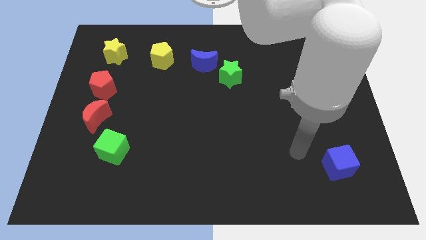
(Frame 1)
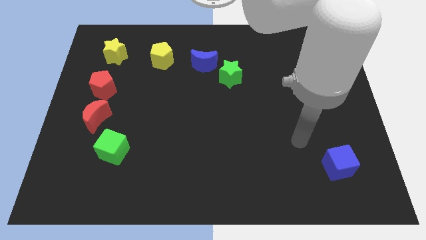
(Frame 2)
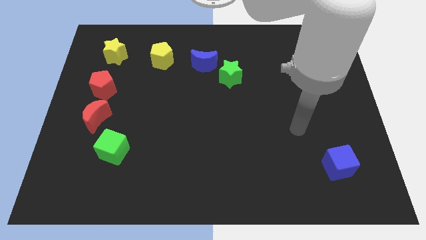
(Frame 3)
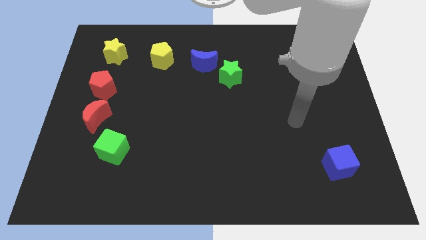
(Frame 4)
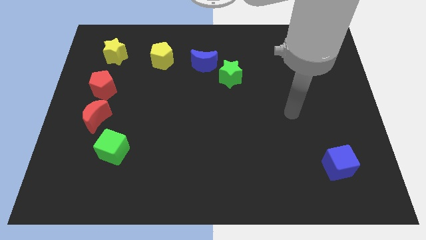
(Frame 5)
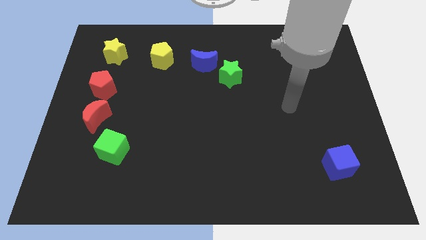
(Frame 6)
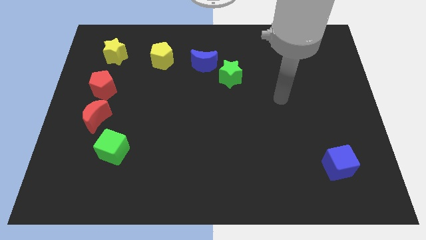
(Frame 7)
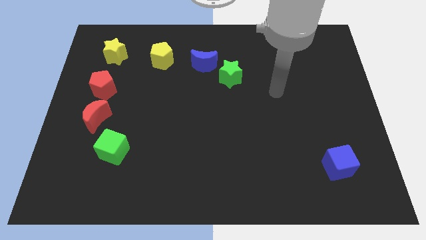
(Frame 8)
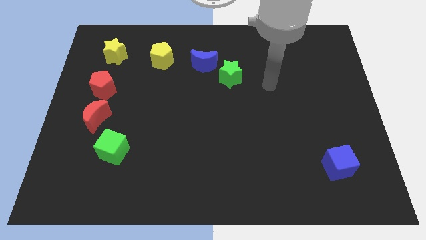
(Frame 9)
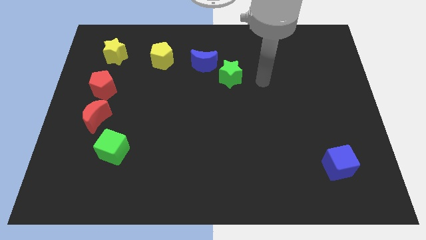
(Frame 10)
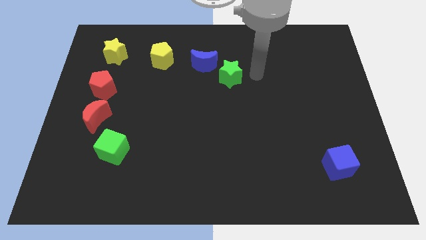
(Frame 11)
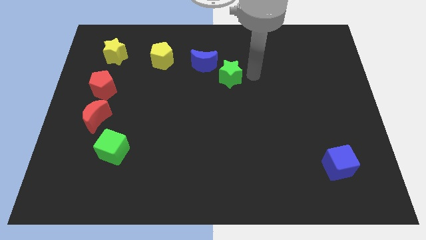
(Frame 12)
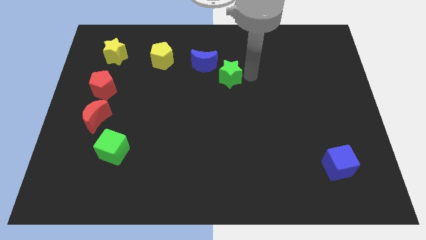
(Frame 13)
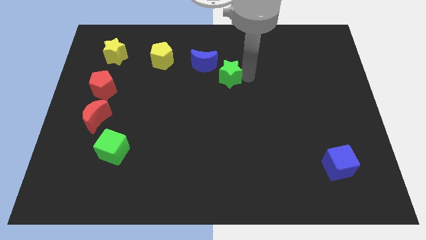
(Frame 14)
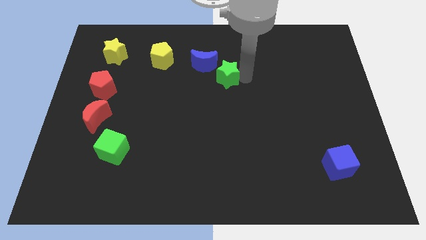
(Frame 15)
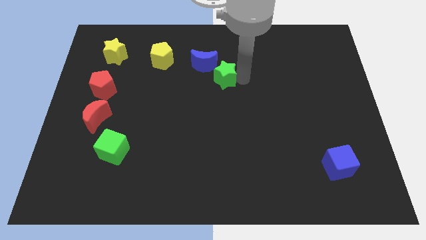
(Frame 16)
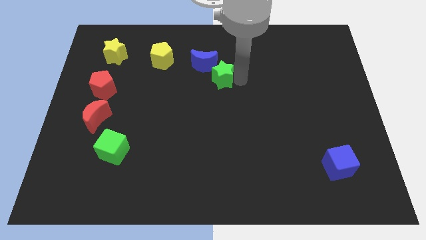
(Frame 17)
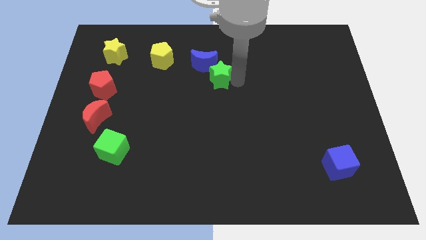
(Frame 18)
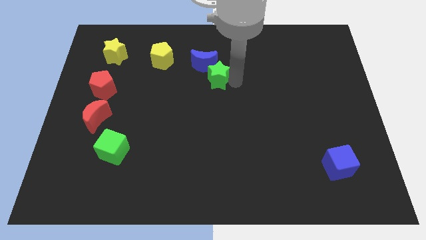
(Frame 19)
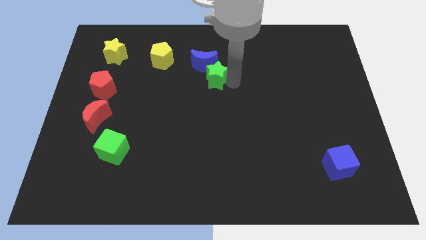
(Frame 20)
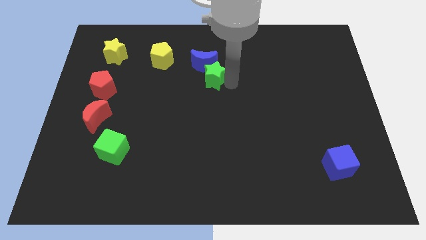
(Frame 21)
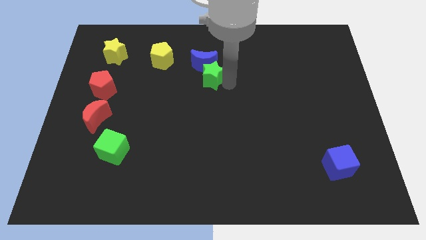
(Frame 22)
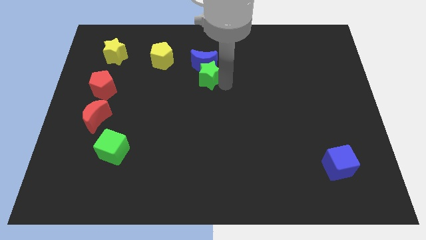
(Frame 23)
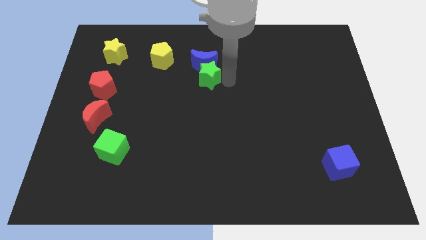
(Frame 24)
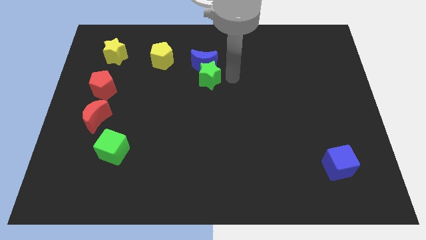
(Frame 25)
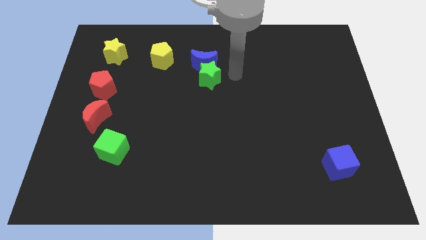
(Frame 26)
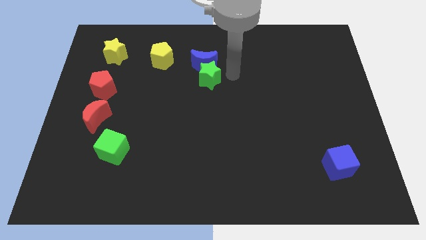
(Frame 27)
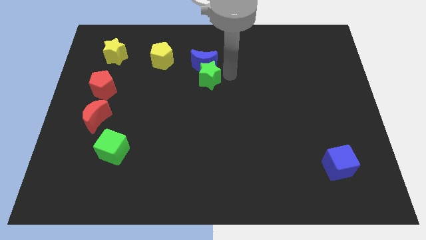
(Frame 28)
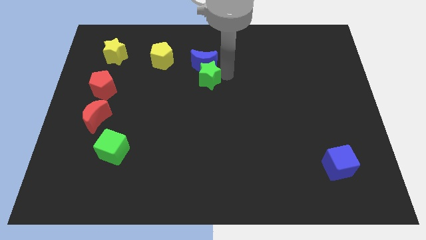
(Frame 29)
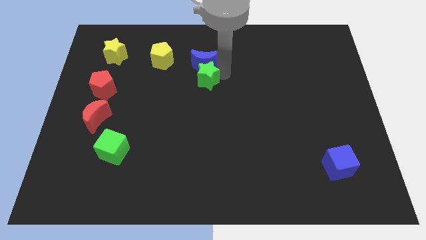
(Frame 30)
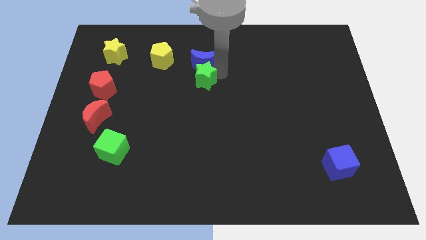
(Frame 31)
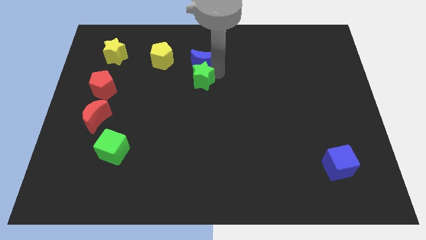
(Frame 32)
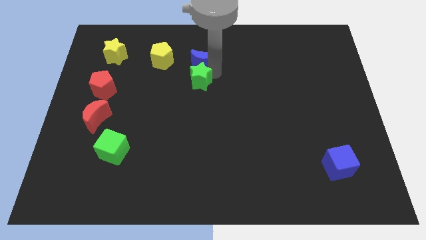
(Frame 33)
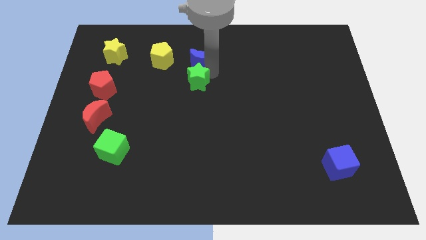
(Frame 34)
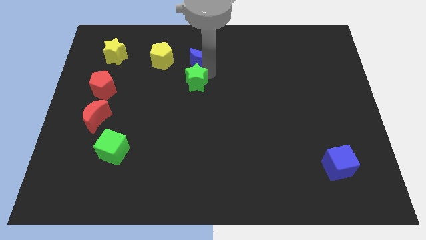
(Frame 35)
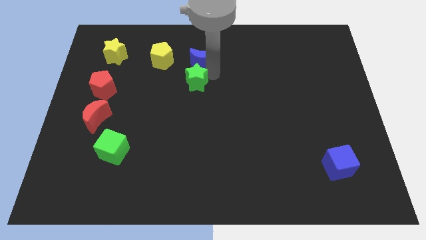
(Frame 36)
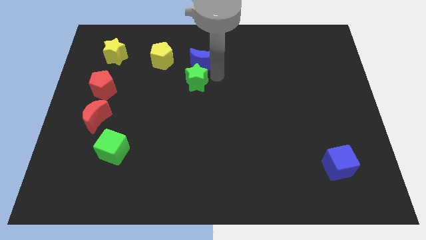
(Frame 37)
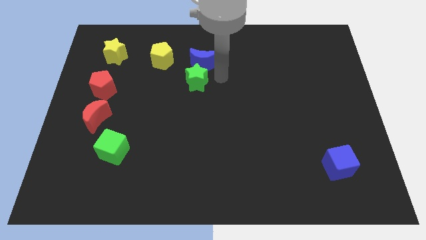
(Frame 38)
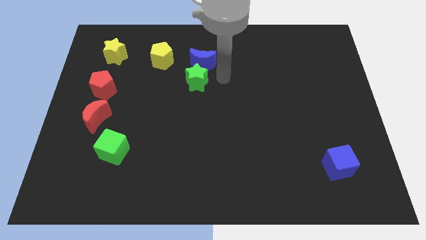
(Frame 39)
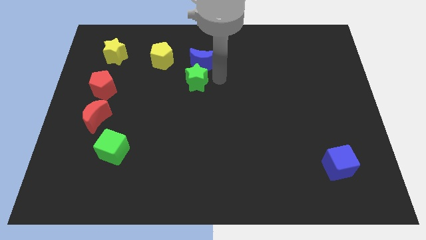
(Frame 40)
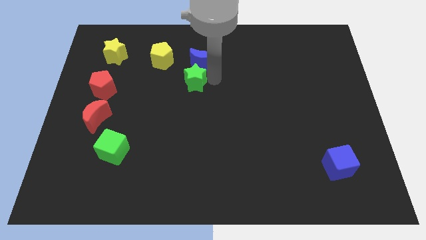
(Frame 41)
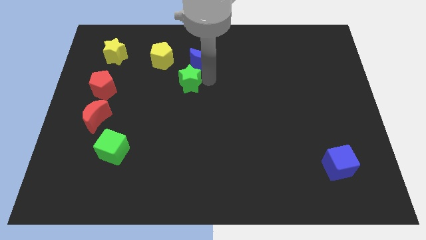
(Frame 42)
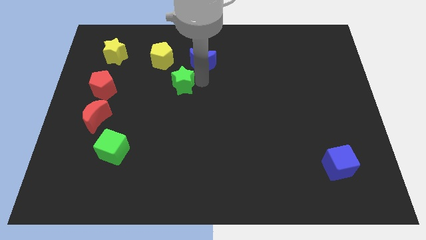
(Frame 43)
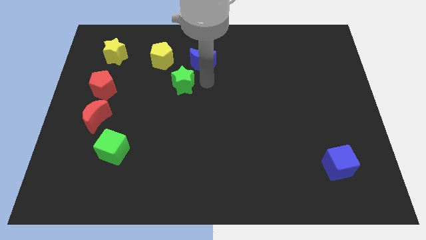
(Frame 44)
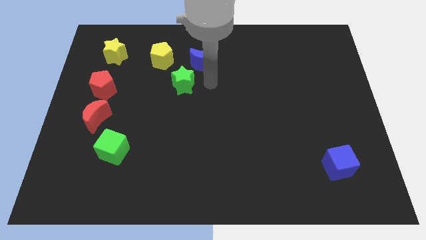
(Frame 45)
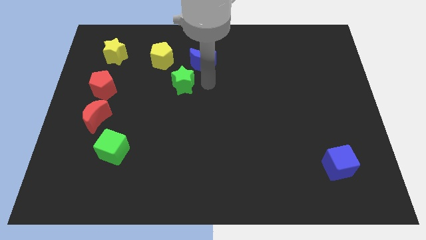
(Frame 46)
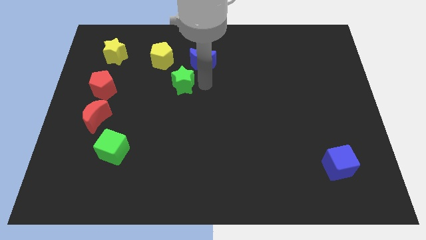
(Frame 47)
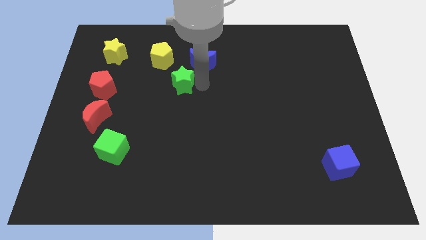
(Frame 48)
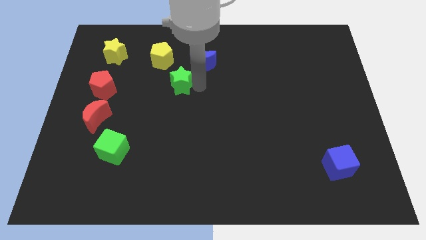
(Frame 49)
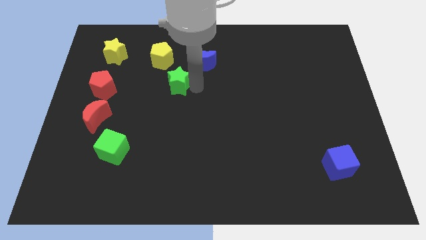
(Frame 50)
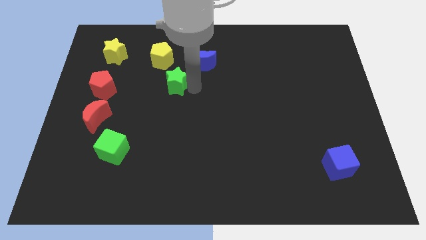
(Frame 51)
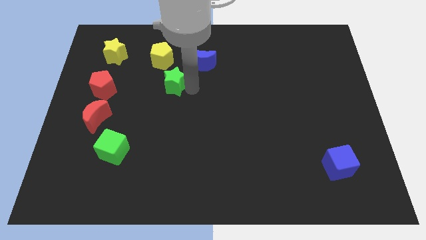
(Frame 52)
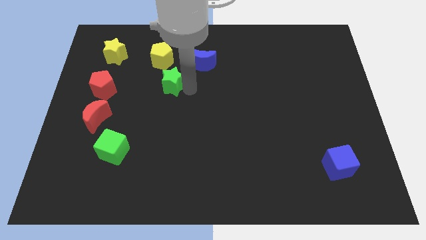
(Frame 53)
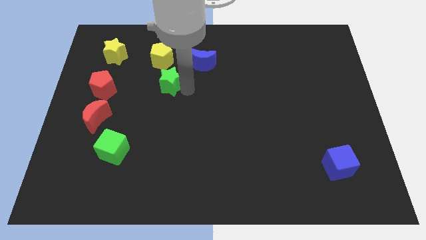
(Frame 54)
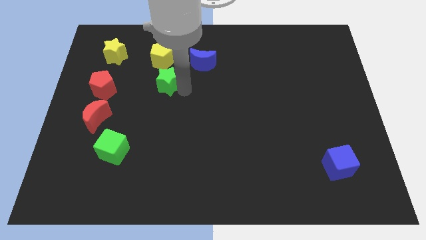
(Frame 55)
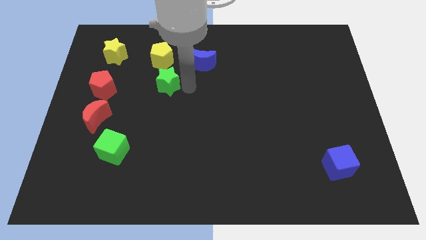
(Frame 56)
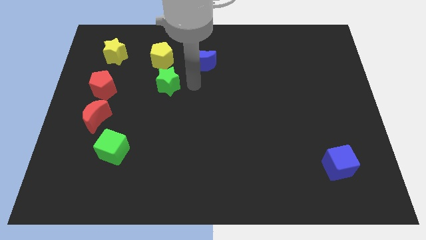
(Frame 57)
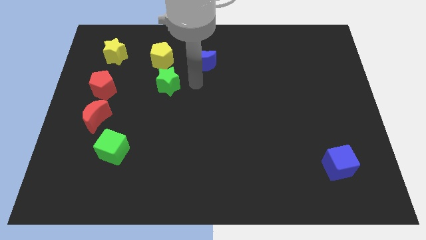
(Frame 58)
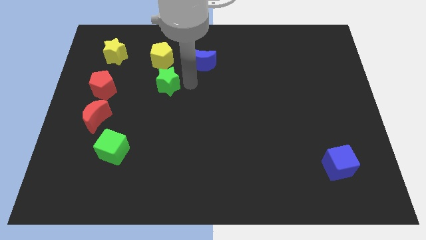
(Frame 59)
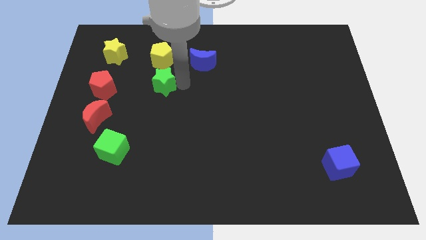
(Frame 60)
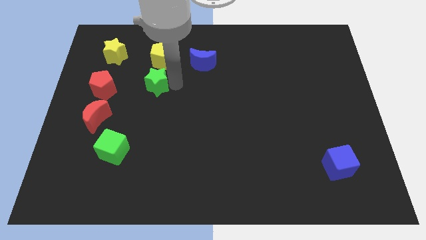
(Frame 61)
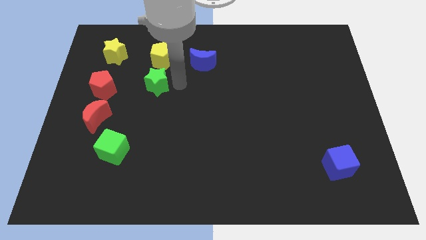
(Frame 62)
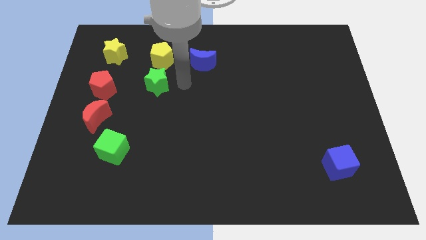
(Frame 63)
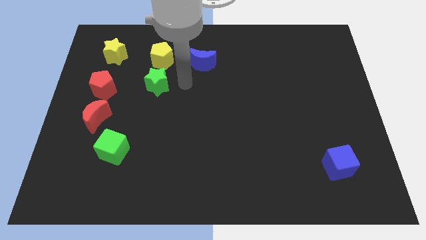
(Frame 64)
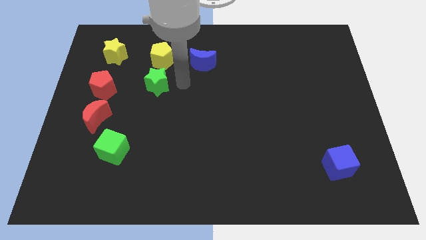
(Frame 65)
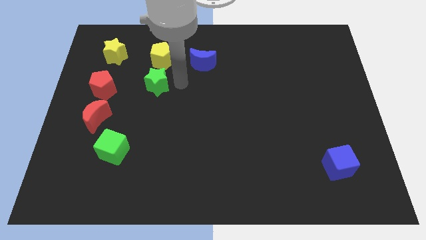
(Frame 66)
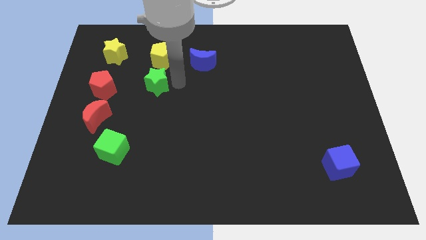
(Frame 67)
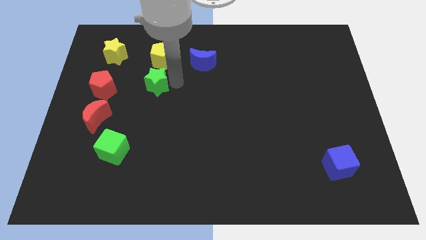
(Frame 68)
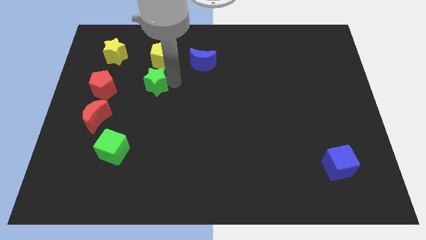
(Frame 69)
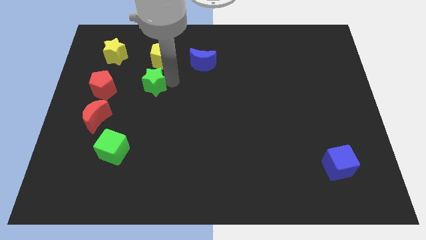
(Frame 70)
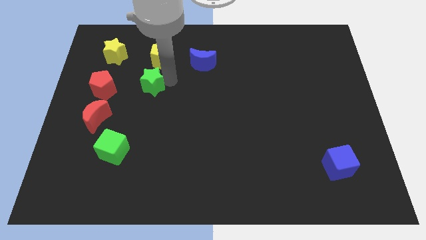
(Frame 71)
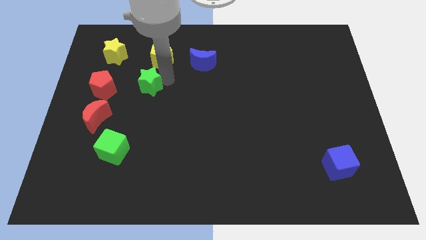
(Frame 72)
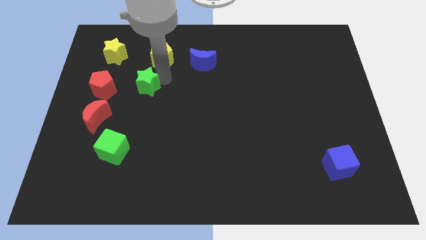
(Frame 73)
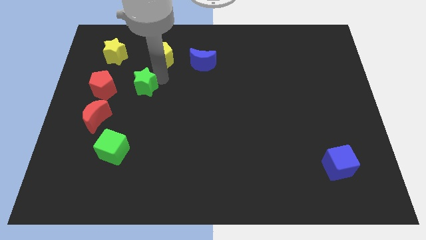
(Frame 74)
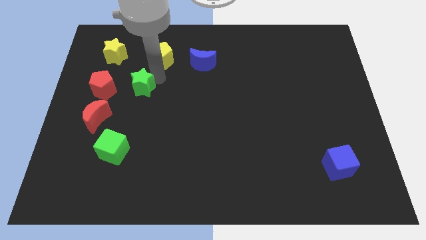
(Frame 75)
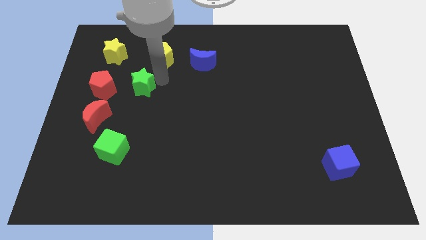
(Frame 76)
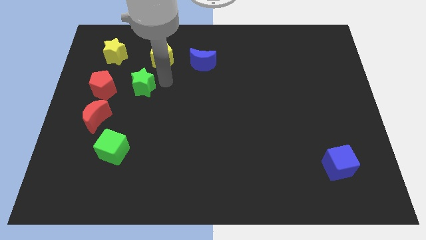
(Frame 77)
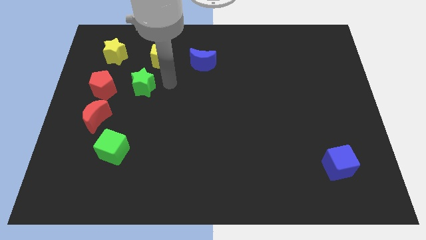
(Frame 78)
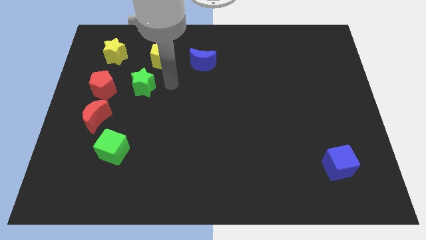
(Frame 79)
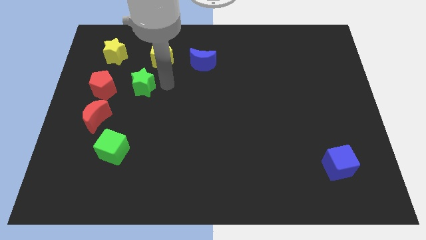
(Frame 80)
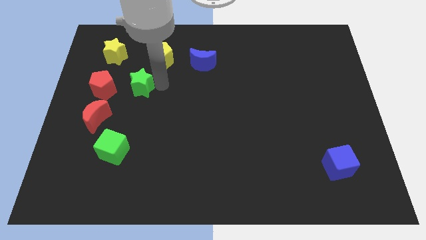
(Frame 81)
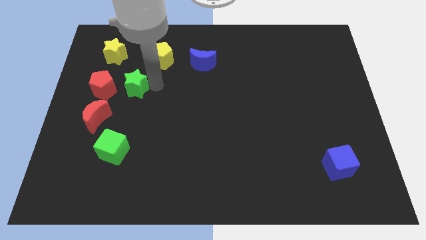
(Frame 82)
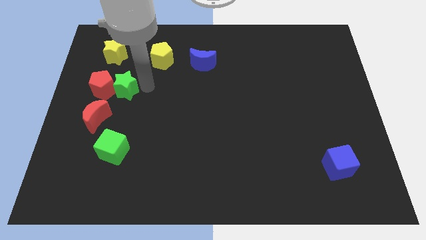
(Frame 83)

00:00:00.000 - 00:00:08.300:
move the green star towards the red pentagon
